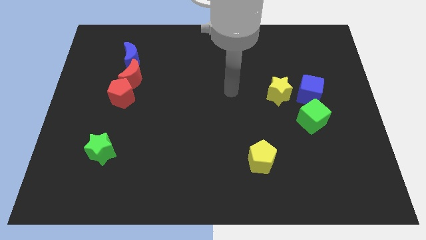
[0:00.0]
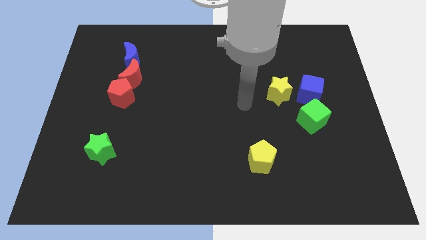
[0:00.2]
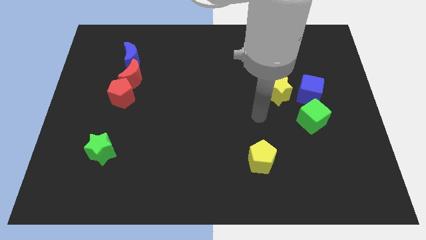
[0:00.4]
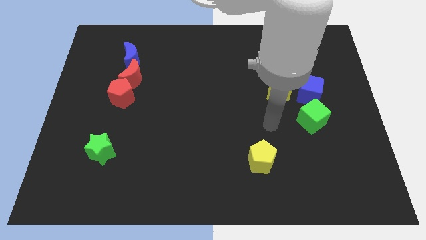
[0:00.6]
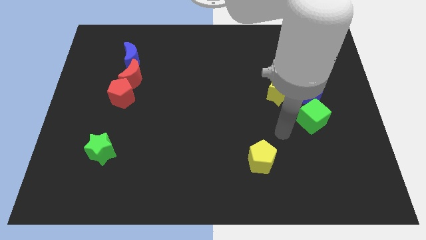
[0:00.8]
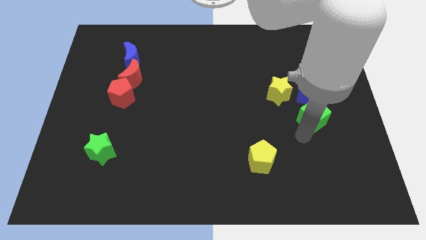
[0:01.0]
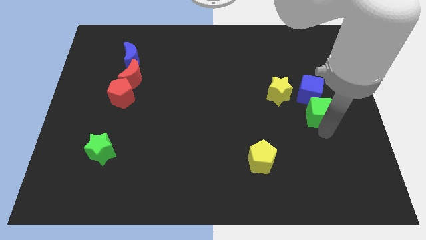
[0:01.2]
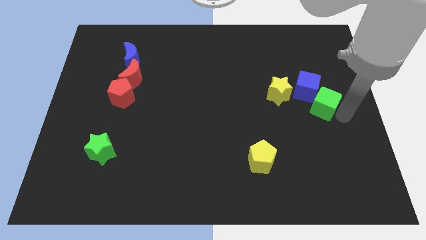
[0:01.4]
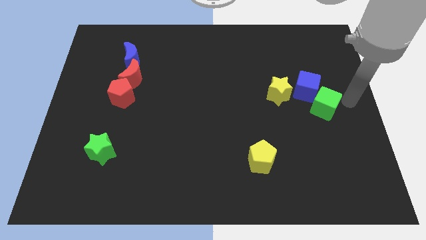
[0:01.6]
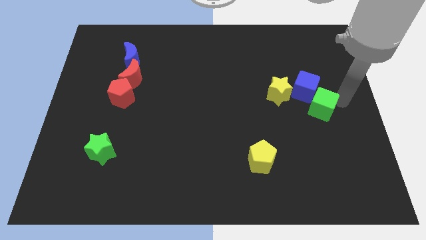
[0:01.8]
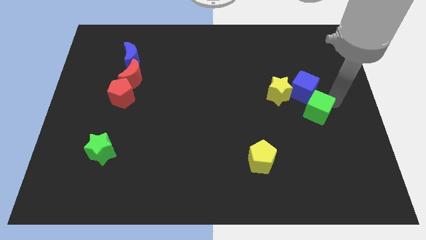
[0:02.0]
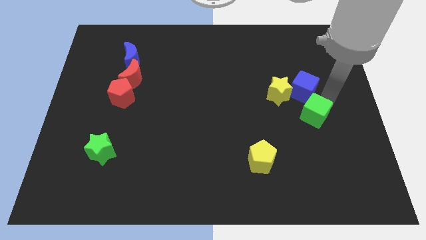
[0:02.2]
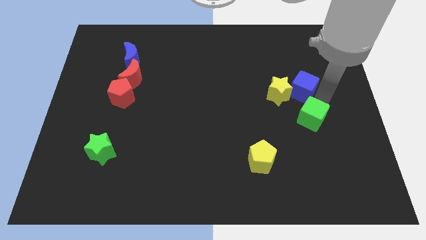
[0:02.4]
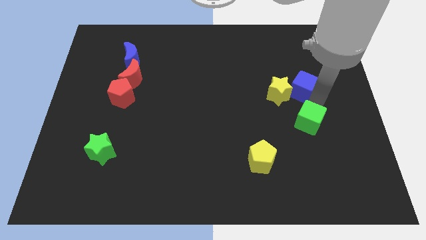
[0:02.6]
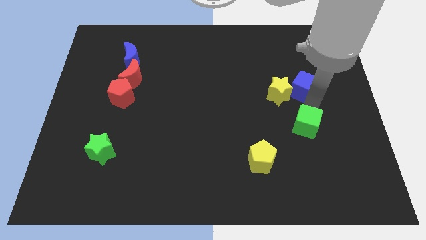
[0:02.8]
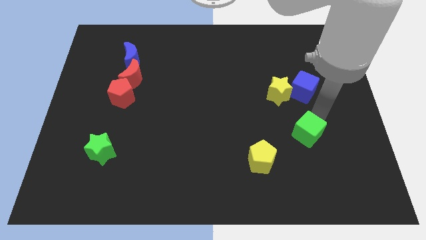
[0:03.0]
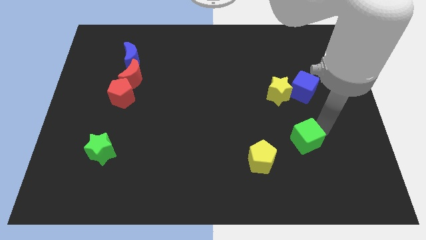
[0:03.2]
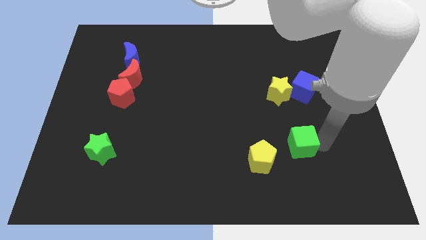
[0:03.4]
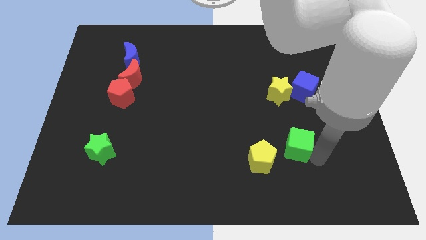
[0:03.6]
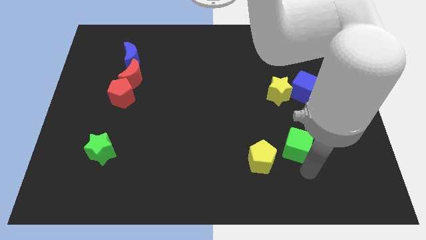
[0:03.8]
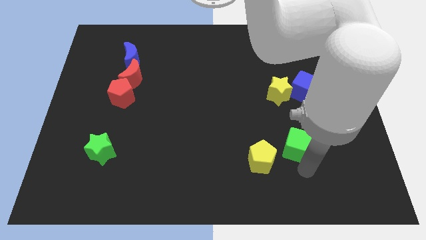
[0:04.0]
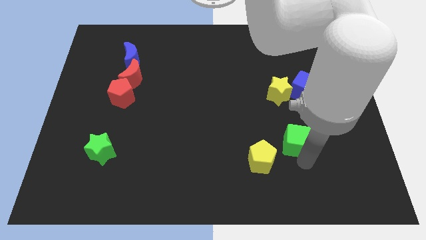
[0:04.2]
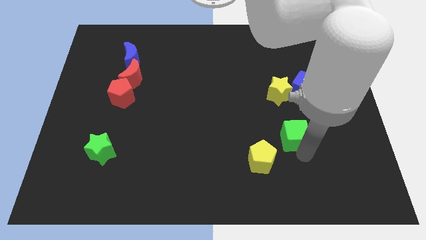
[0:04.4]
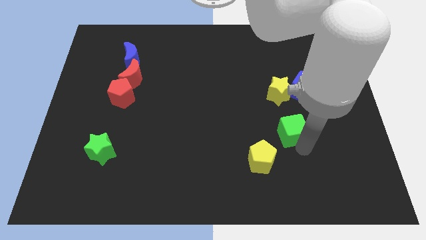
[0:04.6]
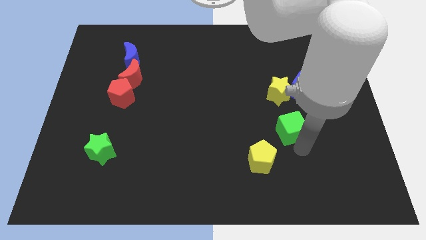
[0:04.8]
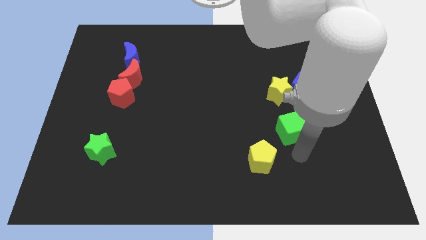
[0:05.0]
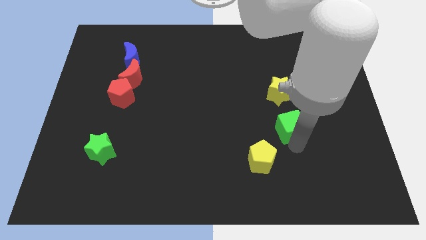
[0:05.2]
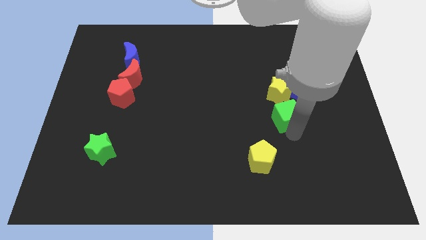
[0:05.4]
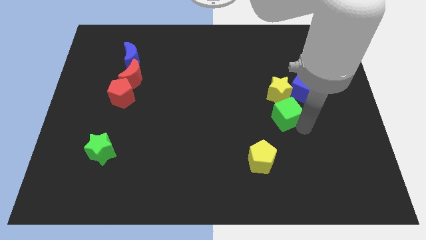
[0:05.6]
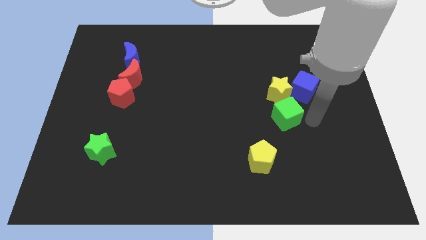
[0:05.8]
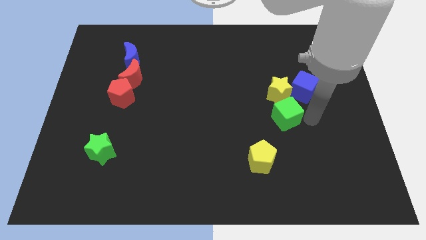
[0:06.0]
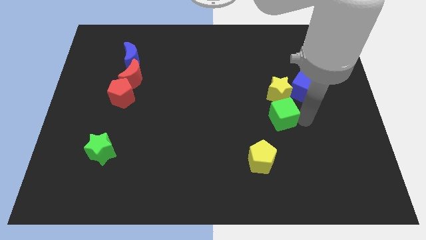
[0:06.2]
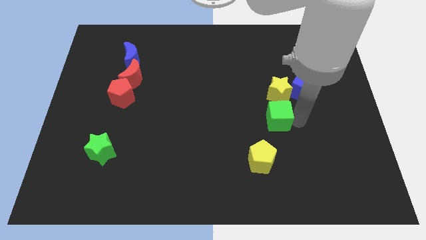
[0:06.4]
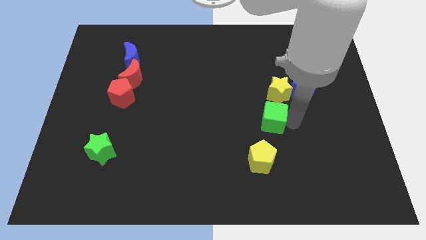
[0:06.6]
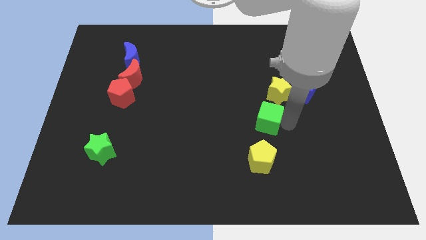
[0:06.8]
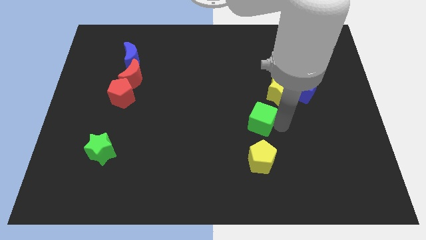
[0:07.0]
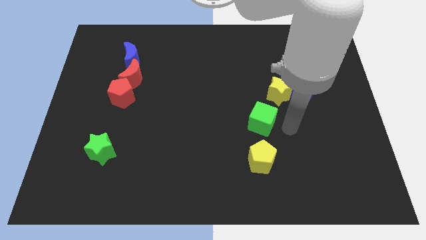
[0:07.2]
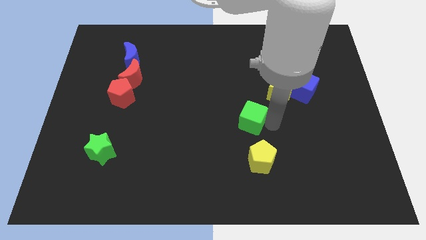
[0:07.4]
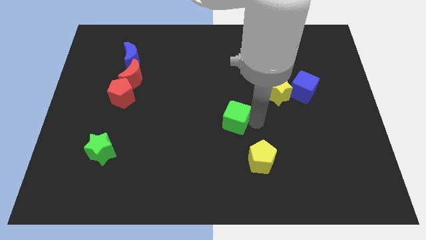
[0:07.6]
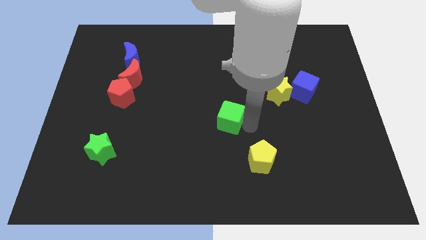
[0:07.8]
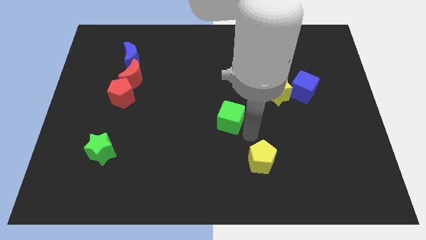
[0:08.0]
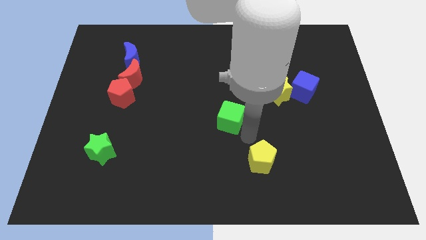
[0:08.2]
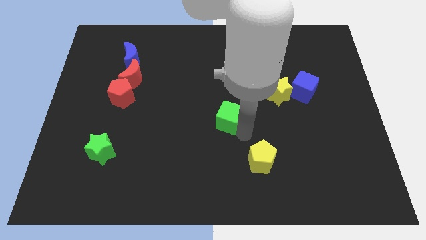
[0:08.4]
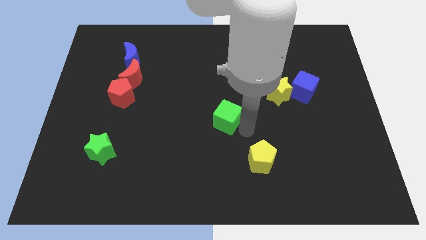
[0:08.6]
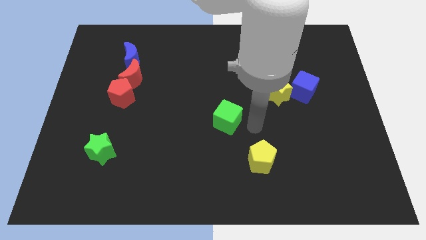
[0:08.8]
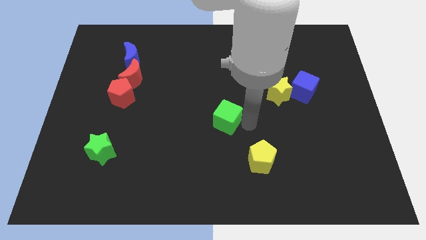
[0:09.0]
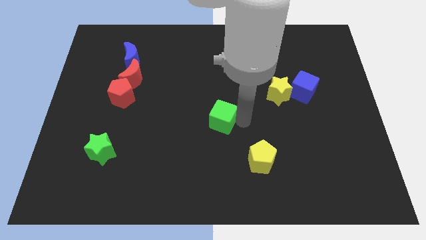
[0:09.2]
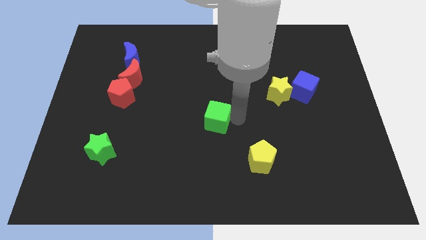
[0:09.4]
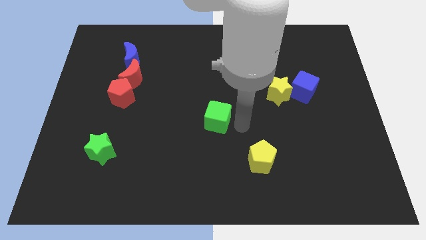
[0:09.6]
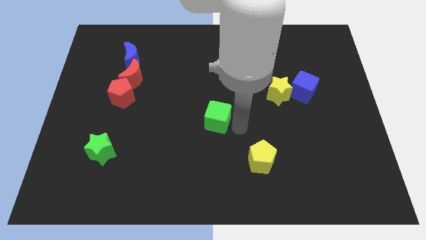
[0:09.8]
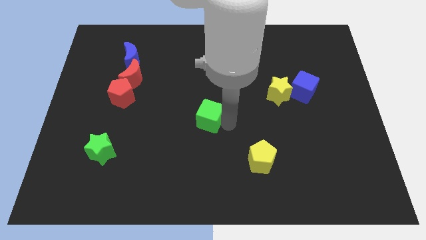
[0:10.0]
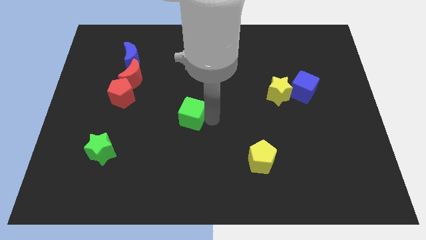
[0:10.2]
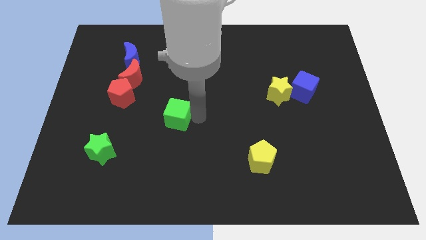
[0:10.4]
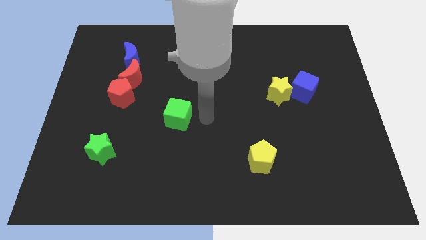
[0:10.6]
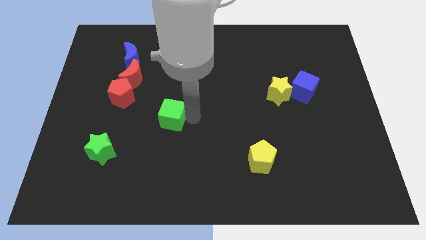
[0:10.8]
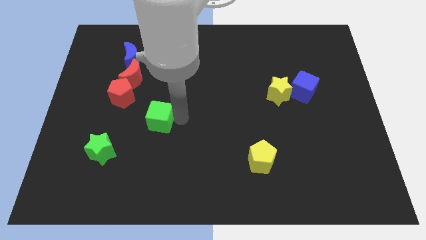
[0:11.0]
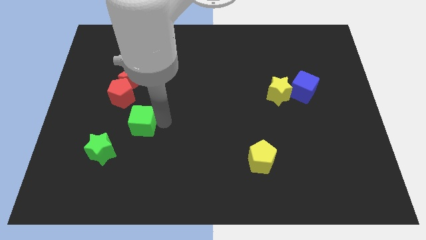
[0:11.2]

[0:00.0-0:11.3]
put the green cube to the bottom of the red moon

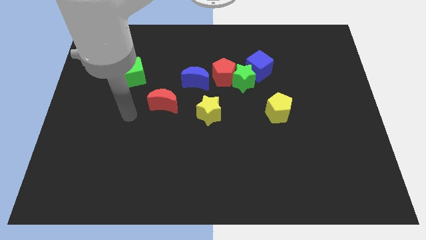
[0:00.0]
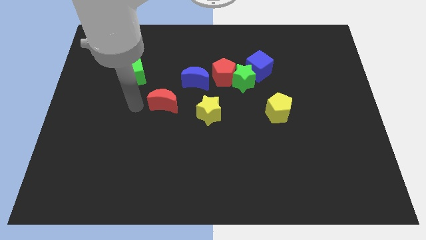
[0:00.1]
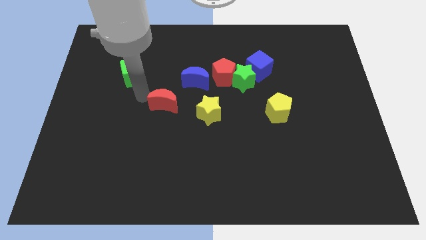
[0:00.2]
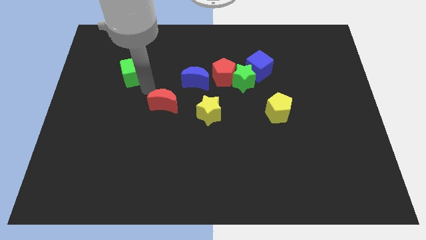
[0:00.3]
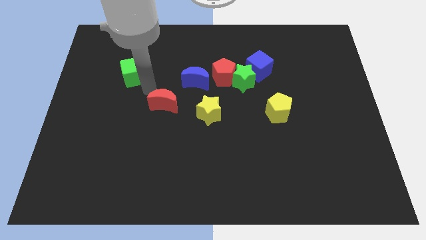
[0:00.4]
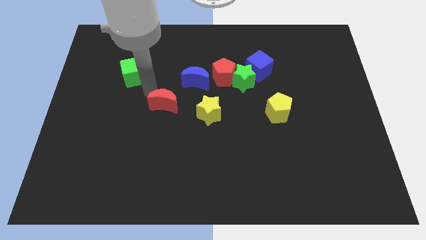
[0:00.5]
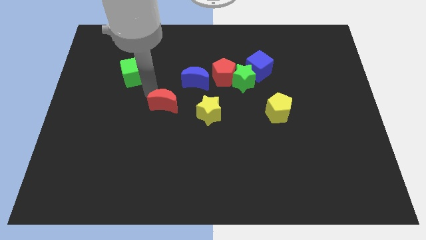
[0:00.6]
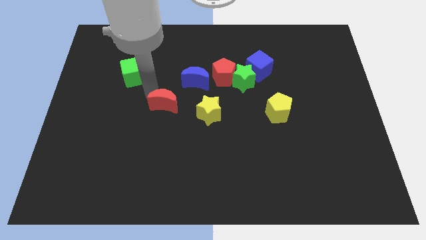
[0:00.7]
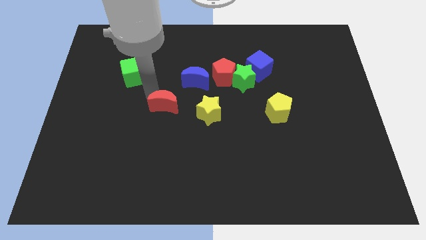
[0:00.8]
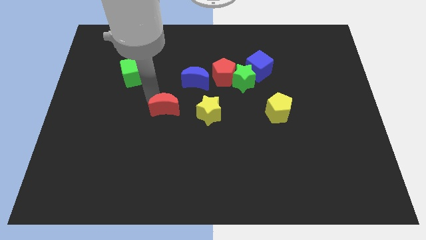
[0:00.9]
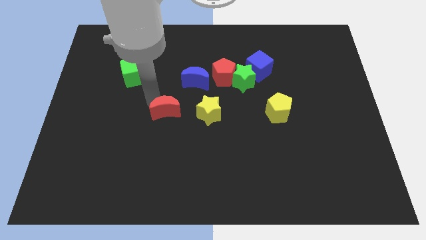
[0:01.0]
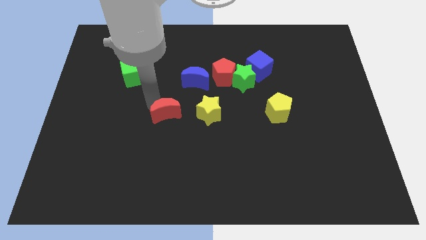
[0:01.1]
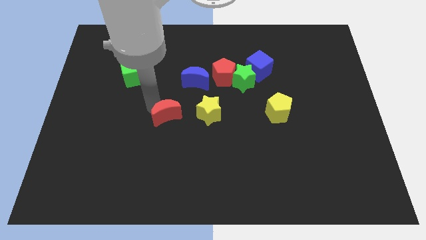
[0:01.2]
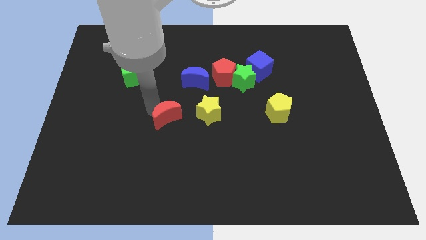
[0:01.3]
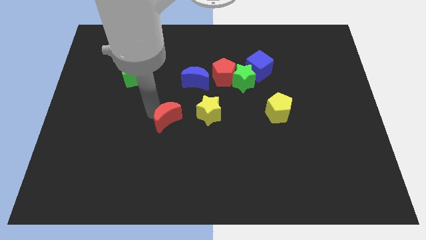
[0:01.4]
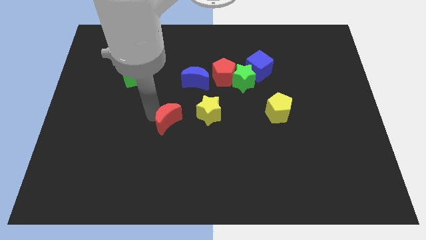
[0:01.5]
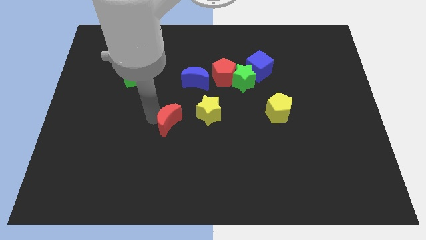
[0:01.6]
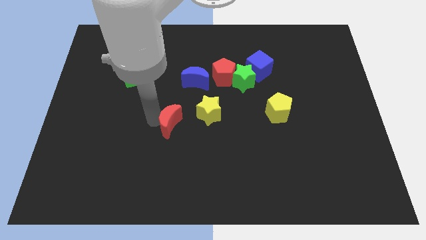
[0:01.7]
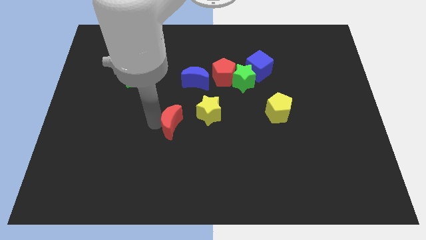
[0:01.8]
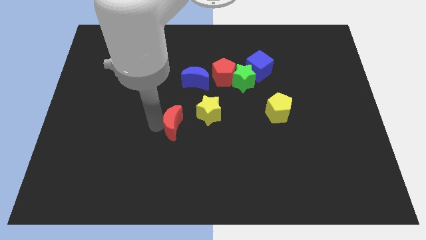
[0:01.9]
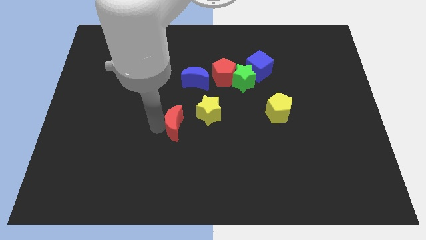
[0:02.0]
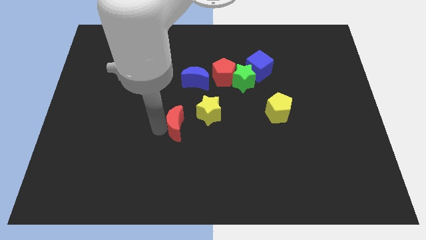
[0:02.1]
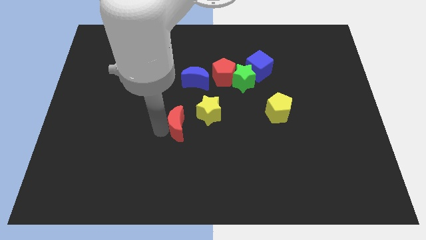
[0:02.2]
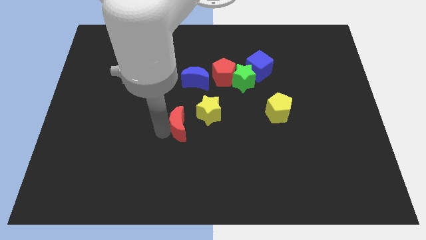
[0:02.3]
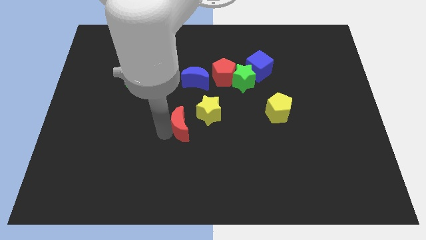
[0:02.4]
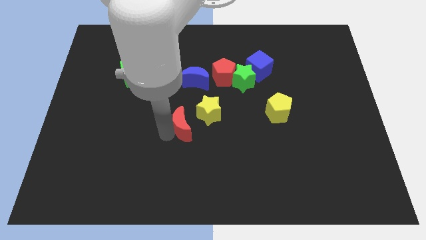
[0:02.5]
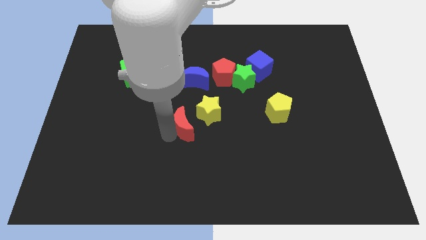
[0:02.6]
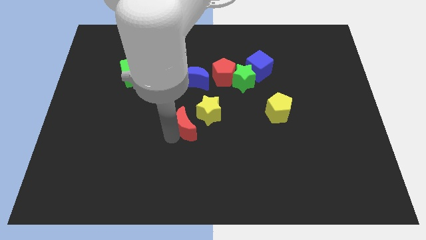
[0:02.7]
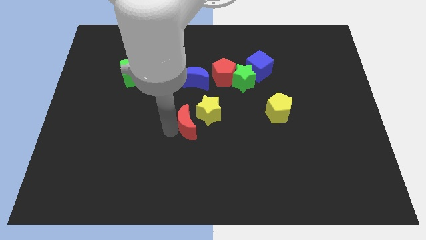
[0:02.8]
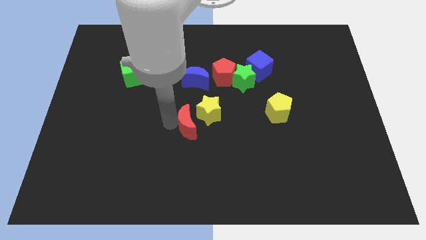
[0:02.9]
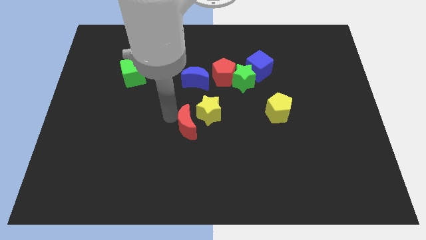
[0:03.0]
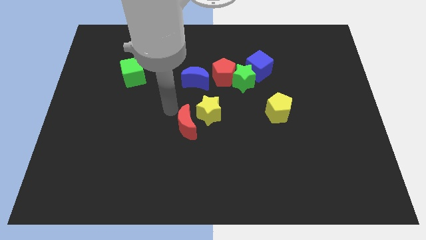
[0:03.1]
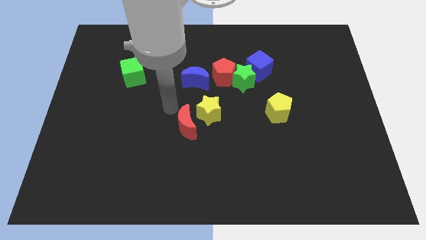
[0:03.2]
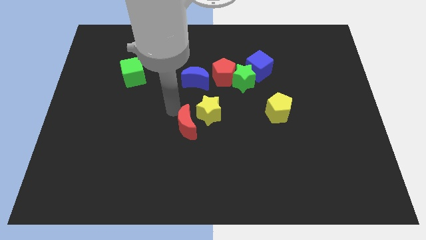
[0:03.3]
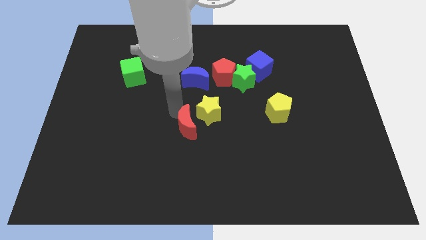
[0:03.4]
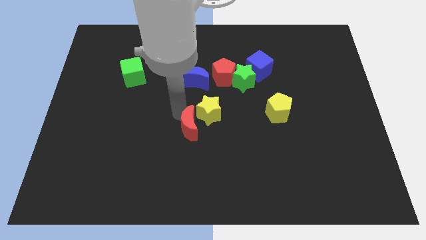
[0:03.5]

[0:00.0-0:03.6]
slide the red moon to the bottom of the yellow star
